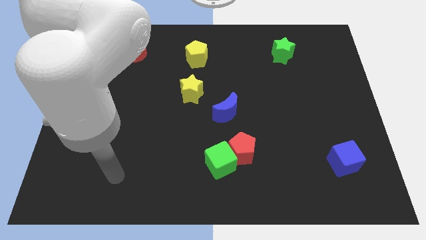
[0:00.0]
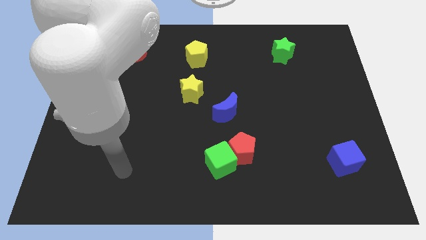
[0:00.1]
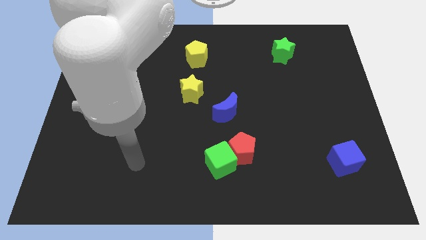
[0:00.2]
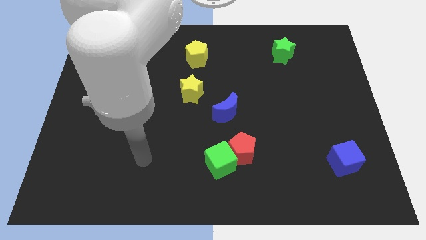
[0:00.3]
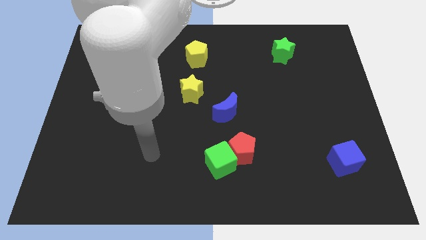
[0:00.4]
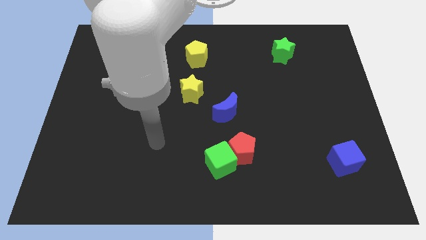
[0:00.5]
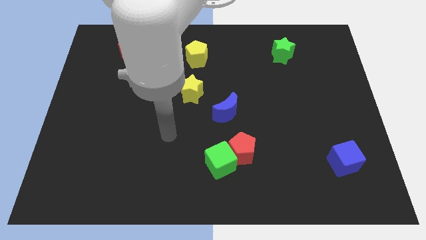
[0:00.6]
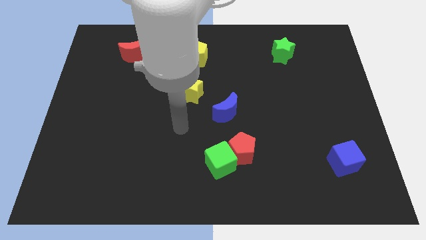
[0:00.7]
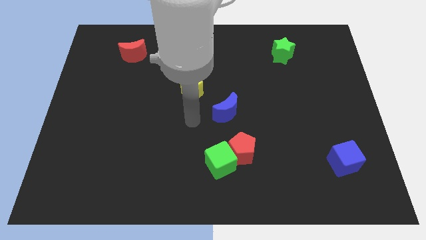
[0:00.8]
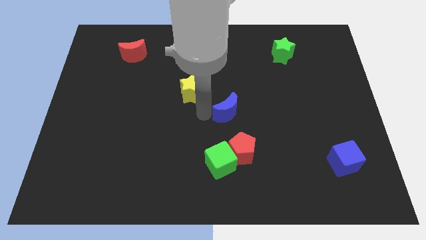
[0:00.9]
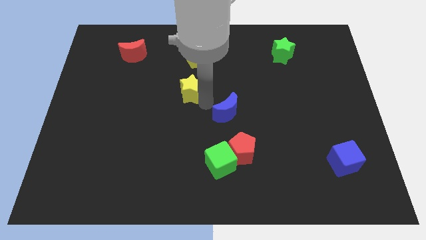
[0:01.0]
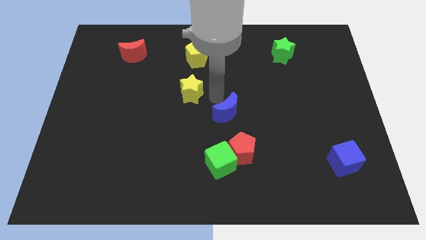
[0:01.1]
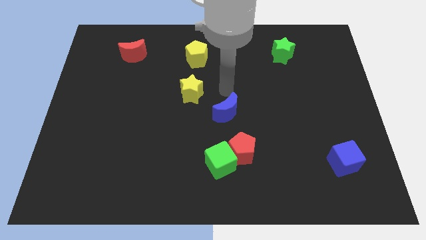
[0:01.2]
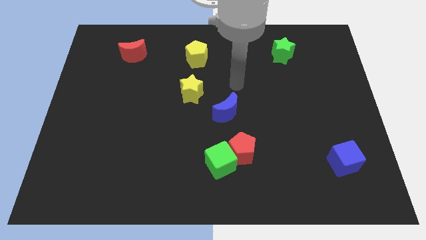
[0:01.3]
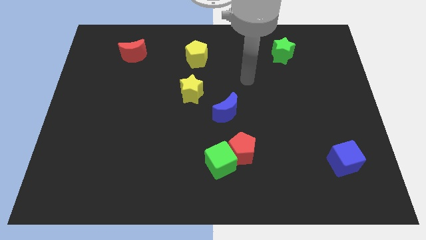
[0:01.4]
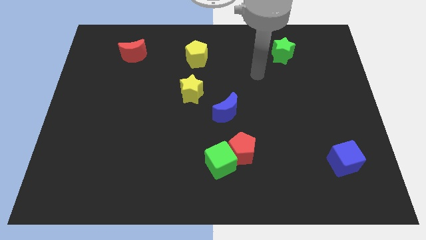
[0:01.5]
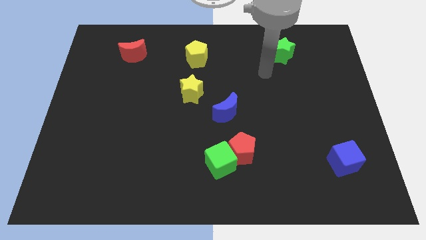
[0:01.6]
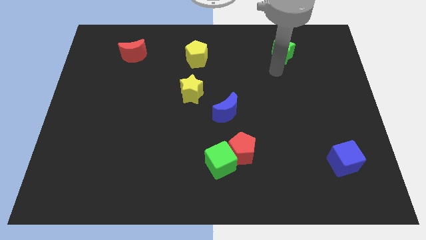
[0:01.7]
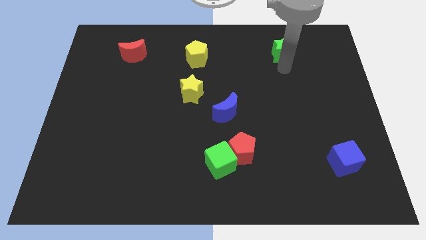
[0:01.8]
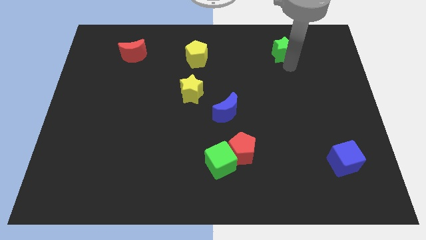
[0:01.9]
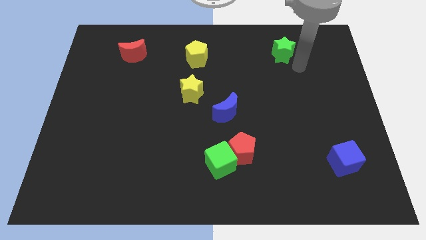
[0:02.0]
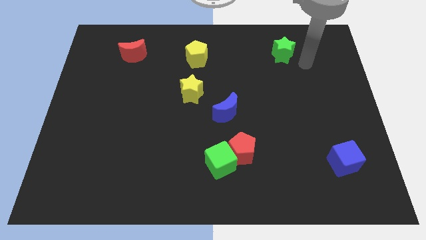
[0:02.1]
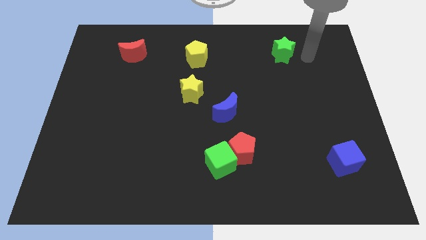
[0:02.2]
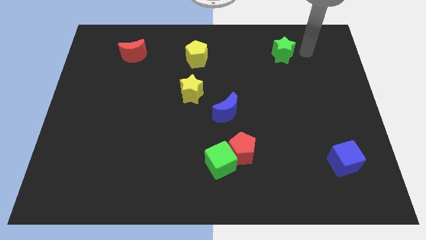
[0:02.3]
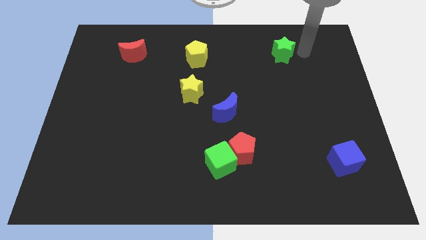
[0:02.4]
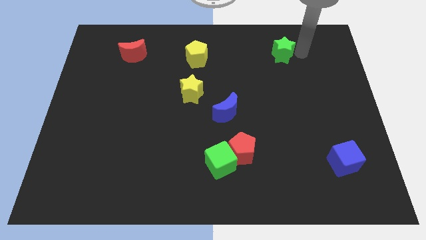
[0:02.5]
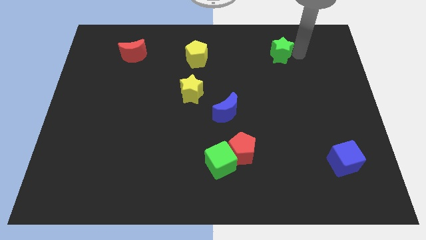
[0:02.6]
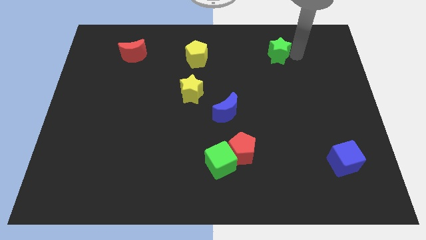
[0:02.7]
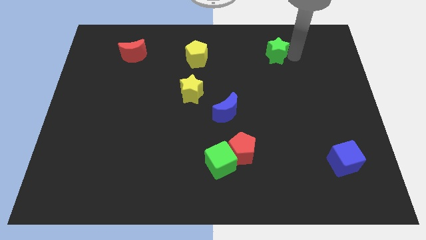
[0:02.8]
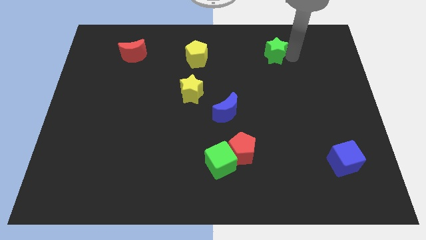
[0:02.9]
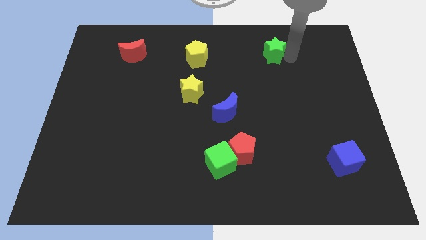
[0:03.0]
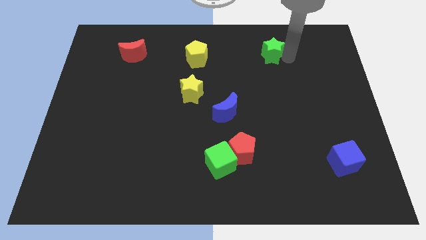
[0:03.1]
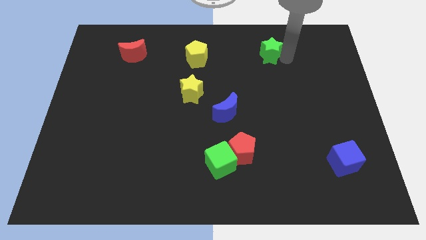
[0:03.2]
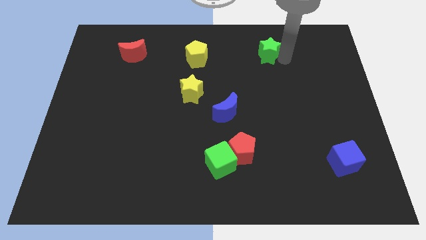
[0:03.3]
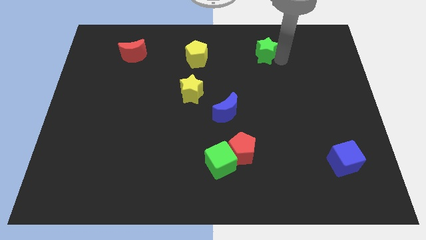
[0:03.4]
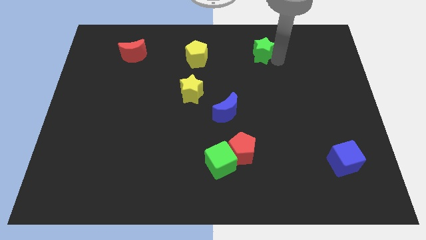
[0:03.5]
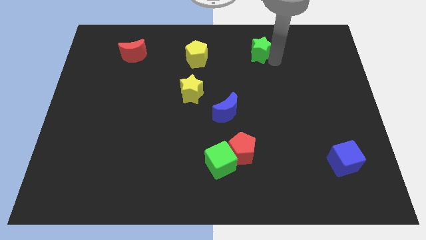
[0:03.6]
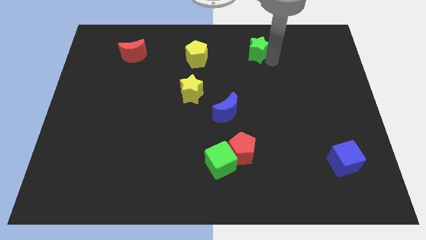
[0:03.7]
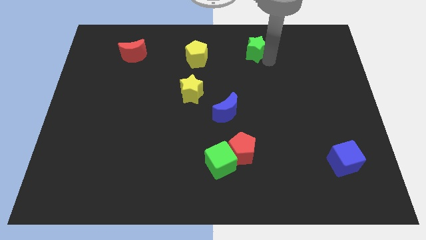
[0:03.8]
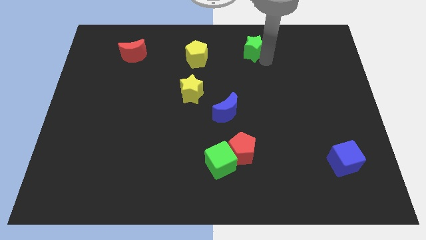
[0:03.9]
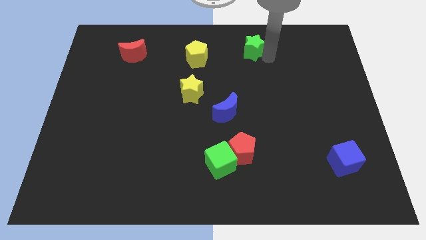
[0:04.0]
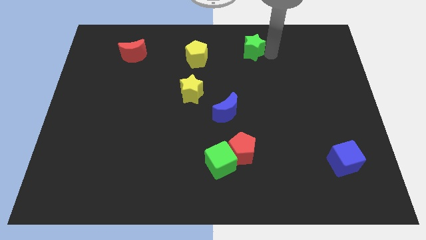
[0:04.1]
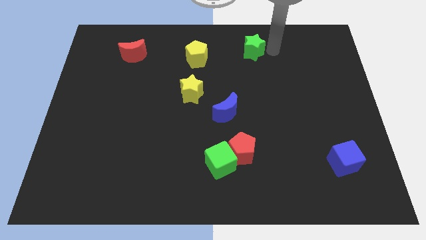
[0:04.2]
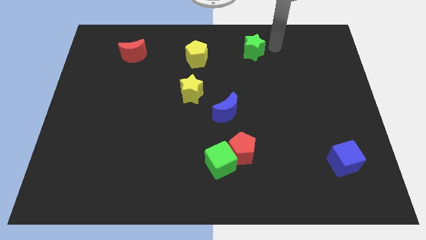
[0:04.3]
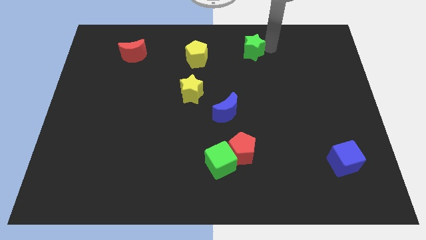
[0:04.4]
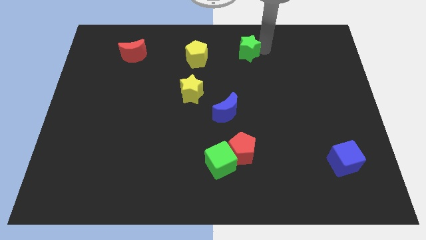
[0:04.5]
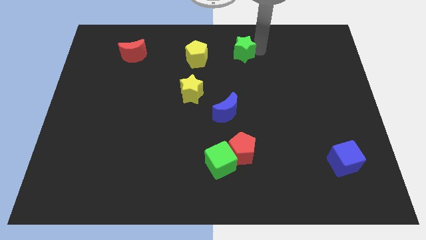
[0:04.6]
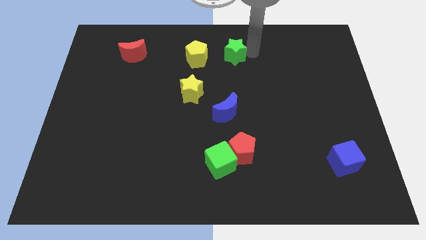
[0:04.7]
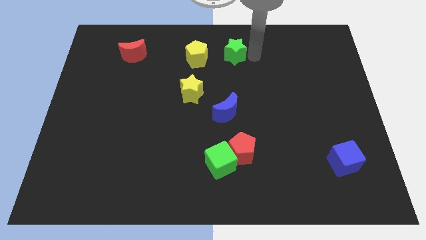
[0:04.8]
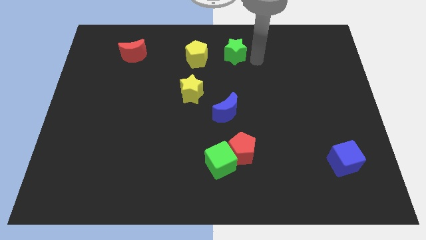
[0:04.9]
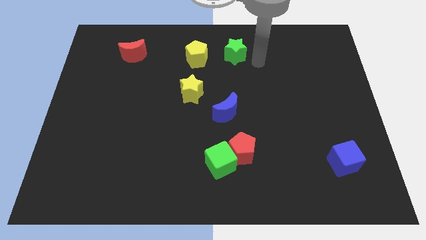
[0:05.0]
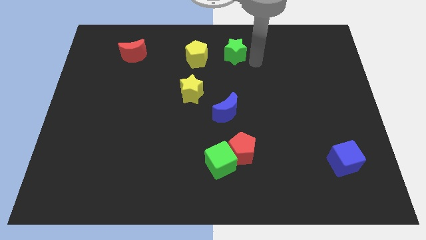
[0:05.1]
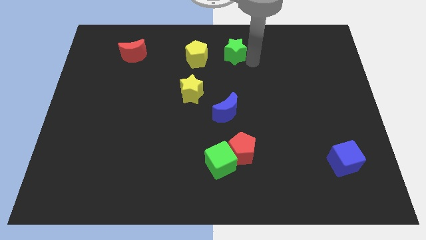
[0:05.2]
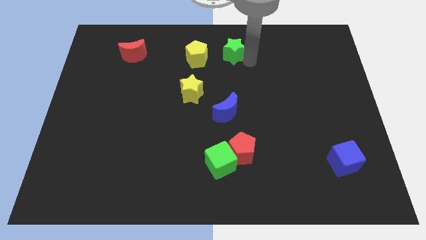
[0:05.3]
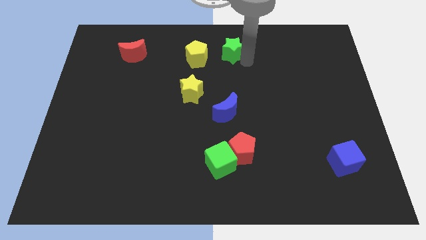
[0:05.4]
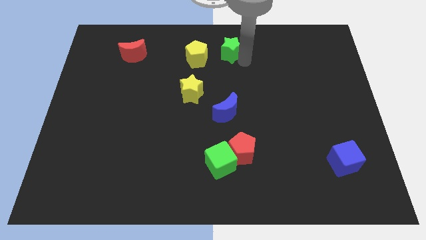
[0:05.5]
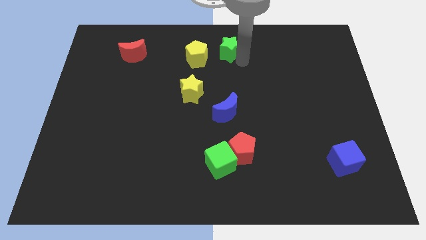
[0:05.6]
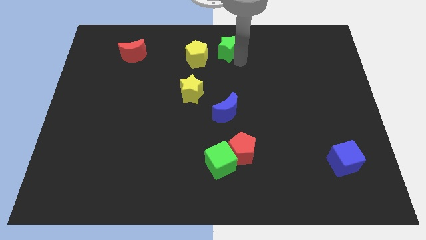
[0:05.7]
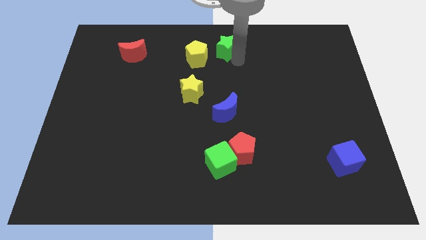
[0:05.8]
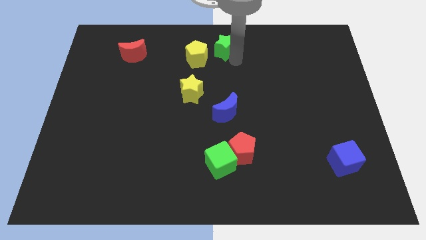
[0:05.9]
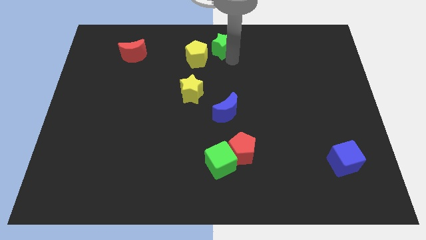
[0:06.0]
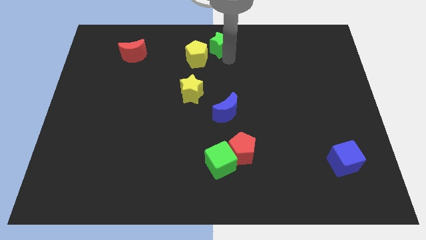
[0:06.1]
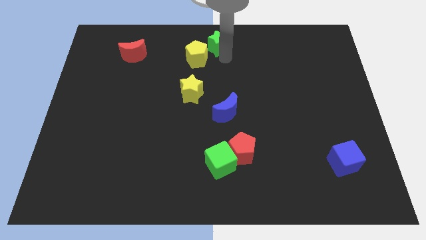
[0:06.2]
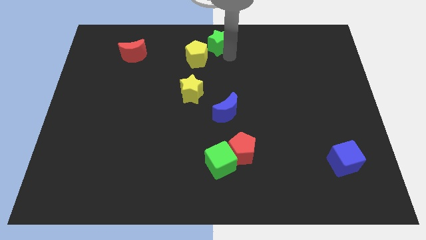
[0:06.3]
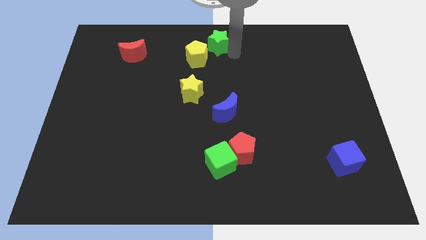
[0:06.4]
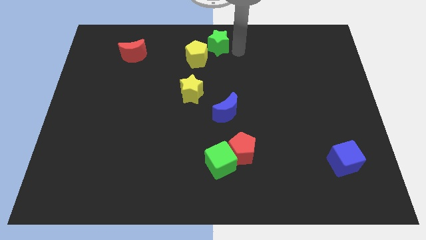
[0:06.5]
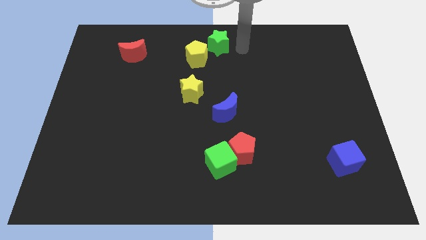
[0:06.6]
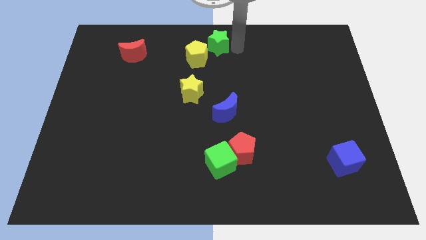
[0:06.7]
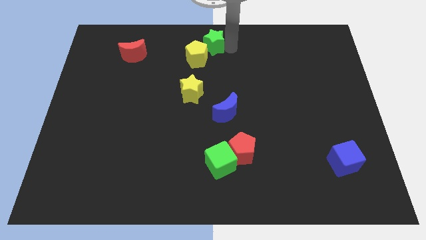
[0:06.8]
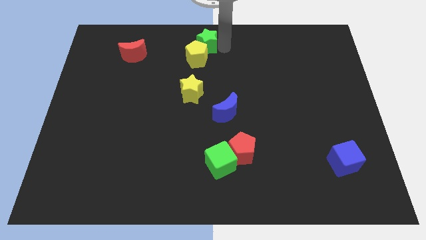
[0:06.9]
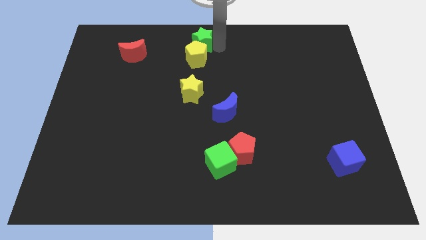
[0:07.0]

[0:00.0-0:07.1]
slide the green star to the left

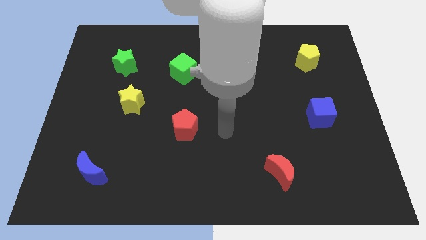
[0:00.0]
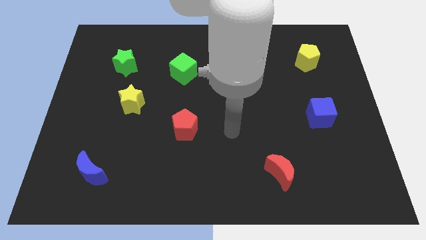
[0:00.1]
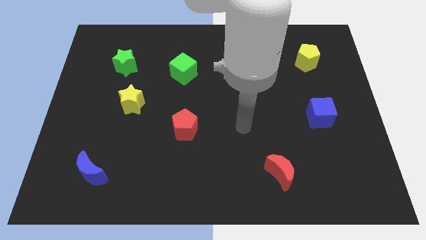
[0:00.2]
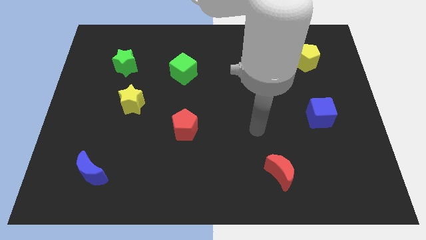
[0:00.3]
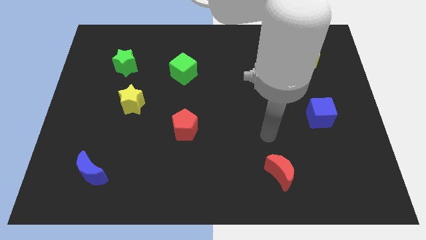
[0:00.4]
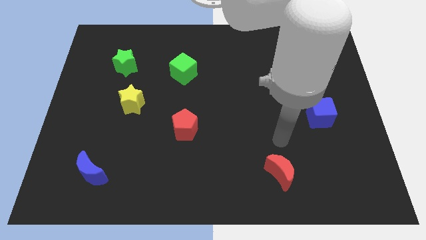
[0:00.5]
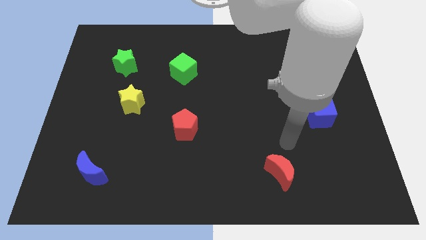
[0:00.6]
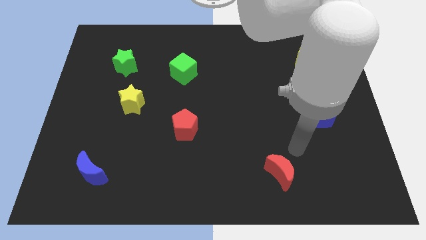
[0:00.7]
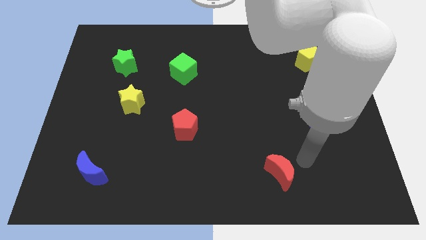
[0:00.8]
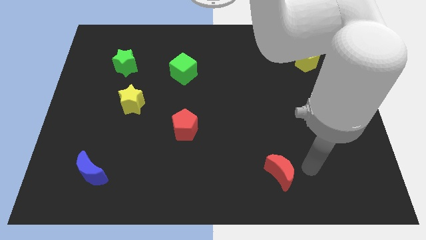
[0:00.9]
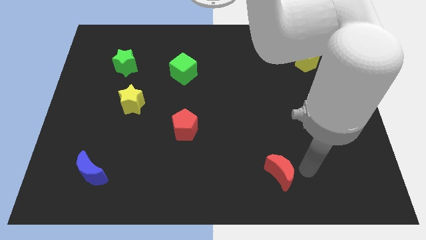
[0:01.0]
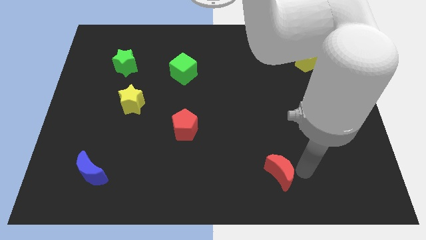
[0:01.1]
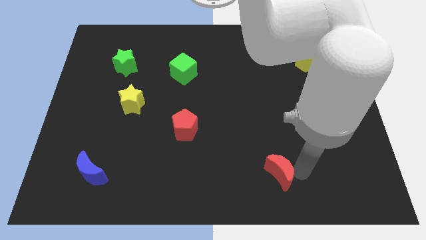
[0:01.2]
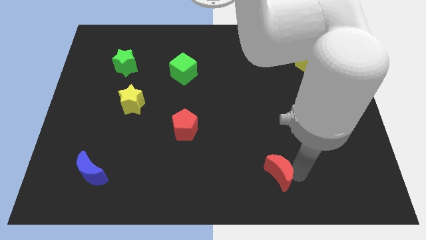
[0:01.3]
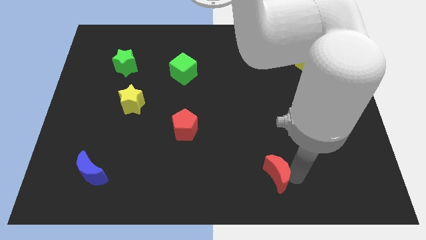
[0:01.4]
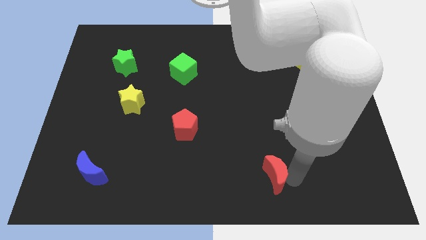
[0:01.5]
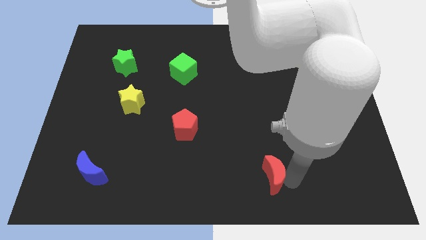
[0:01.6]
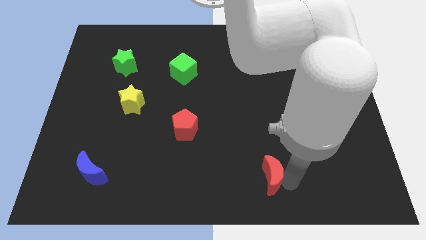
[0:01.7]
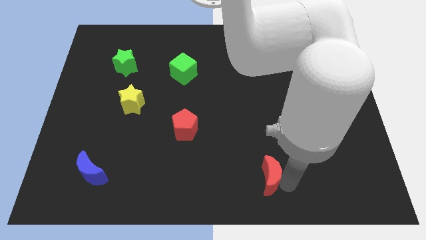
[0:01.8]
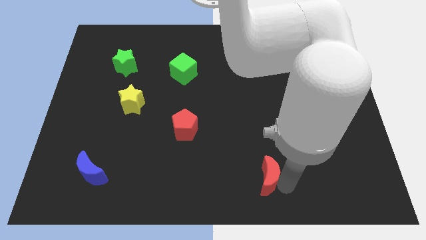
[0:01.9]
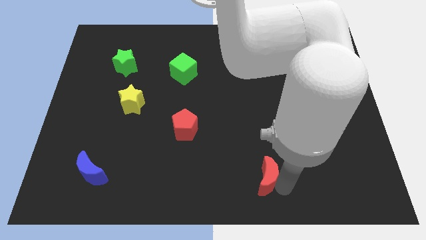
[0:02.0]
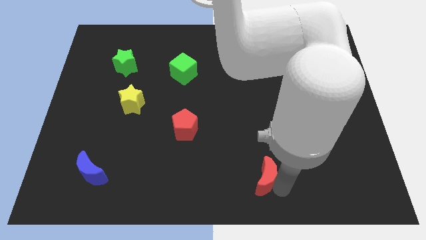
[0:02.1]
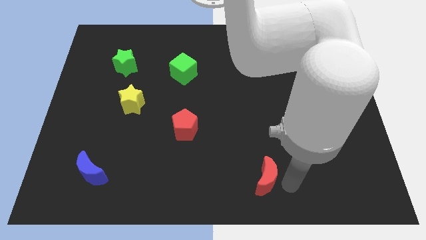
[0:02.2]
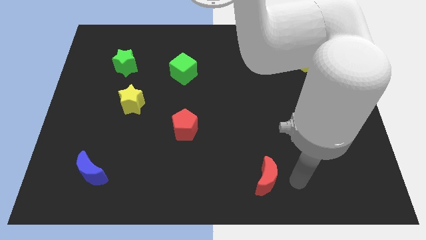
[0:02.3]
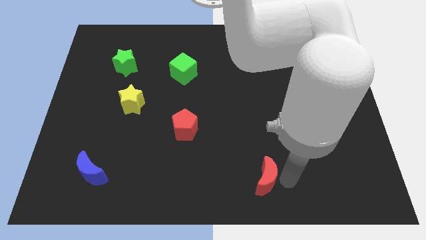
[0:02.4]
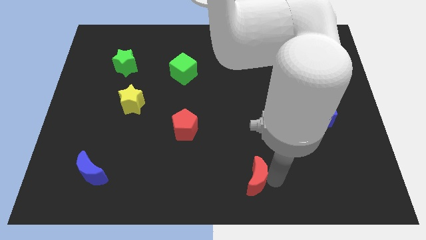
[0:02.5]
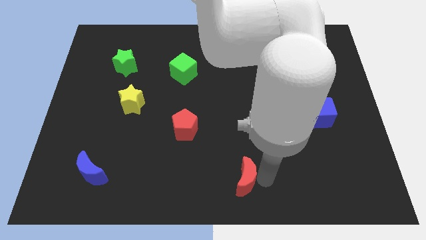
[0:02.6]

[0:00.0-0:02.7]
slide the red moon to the left a little
